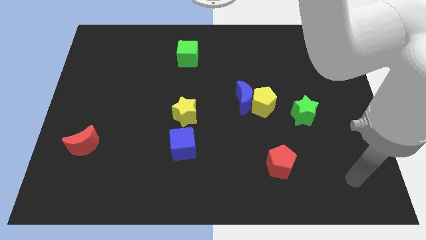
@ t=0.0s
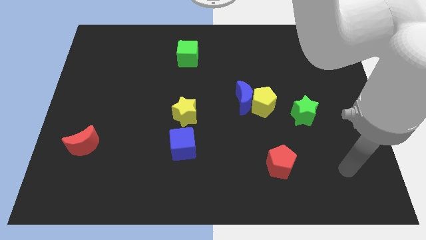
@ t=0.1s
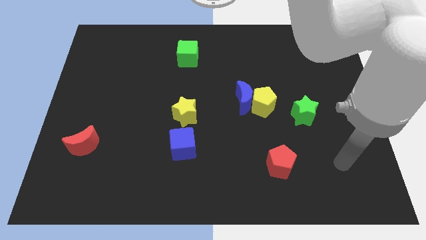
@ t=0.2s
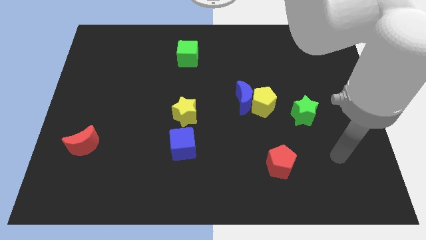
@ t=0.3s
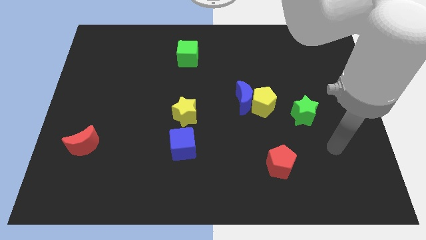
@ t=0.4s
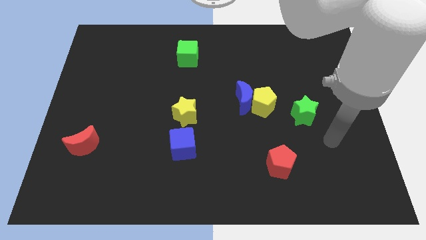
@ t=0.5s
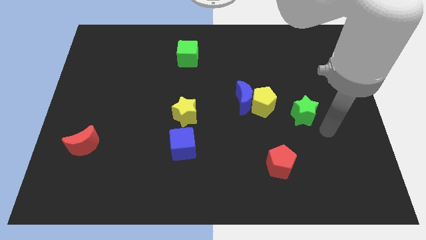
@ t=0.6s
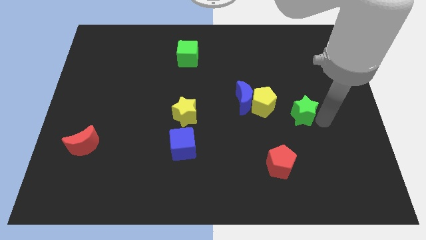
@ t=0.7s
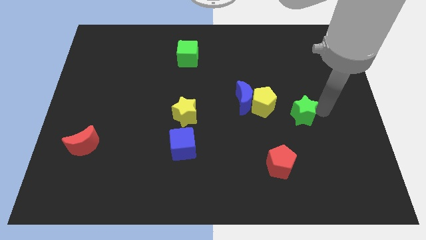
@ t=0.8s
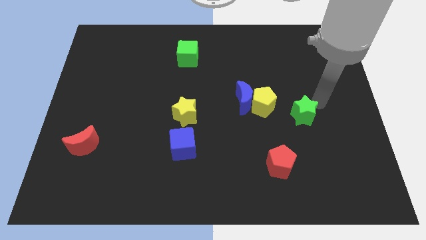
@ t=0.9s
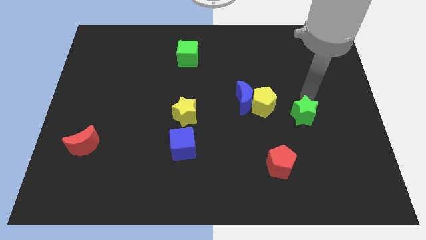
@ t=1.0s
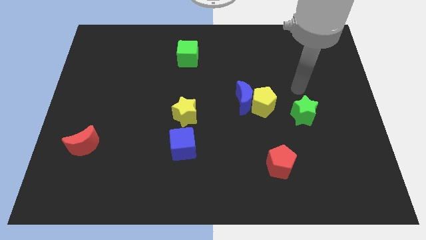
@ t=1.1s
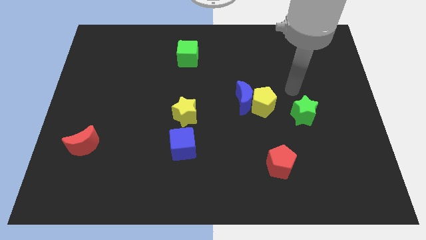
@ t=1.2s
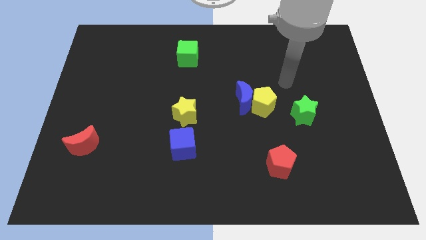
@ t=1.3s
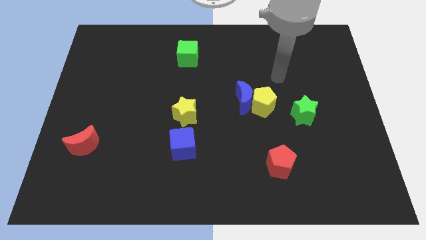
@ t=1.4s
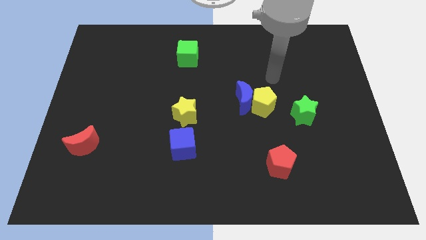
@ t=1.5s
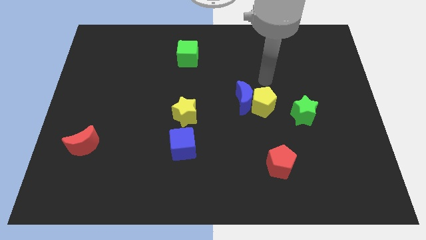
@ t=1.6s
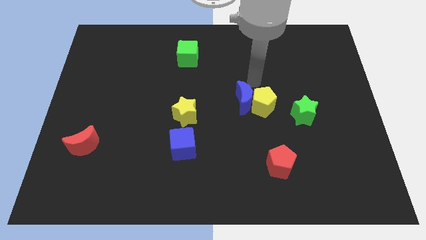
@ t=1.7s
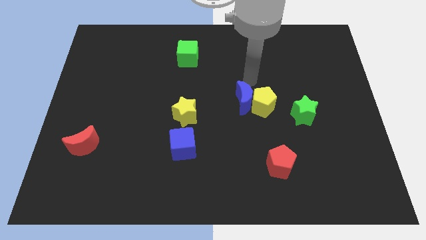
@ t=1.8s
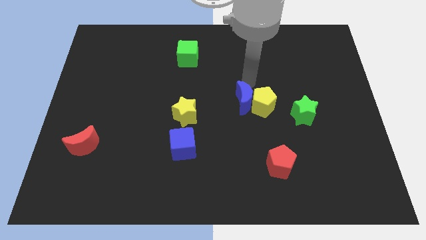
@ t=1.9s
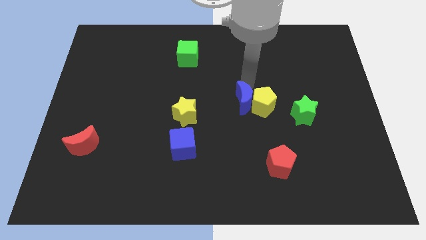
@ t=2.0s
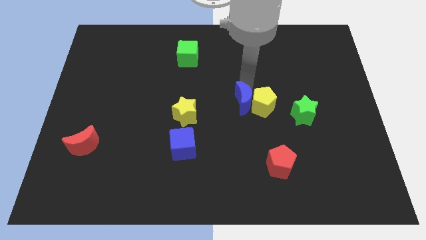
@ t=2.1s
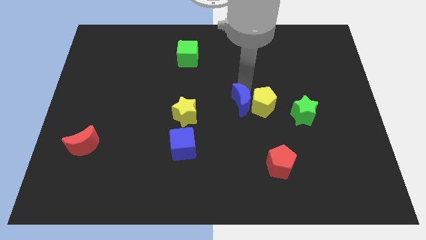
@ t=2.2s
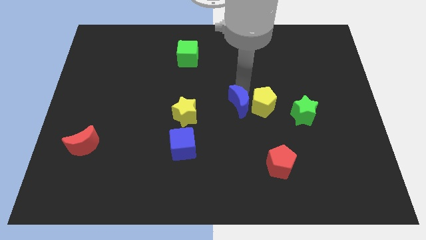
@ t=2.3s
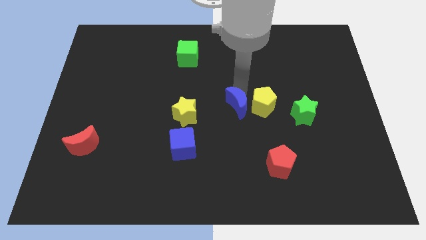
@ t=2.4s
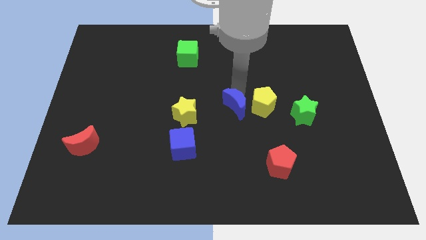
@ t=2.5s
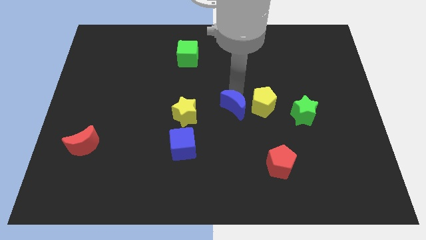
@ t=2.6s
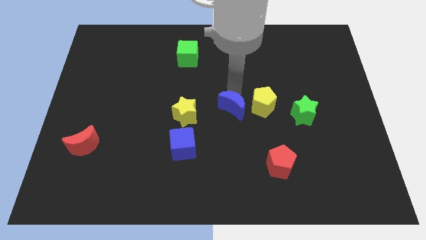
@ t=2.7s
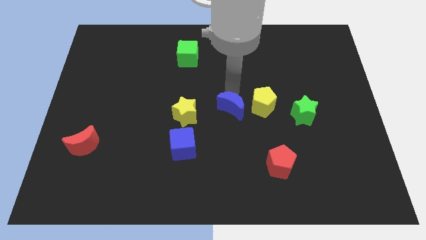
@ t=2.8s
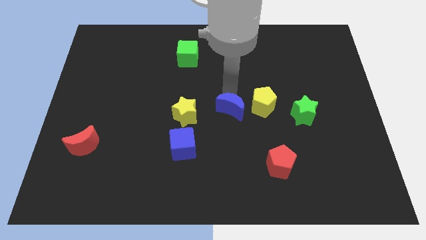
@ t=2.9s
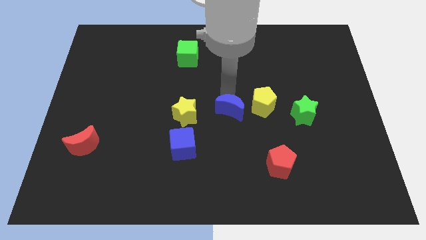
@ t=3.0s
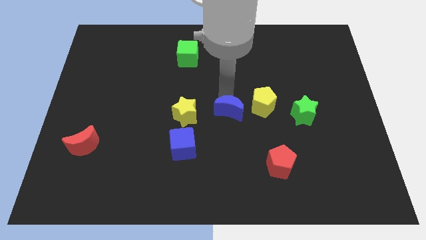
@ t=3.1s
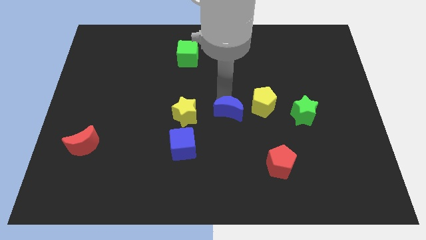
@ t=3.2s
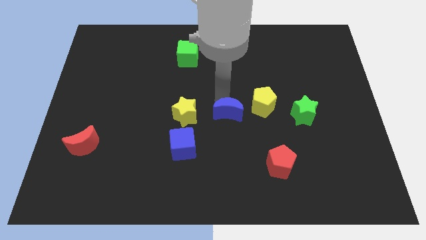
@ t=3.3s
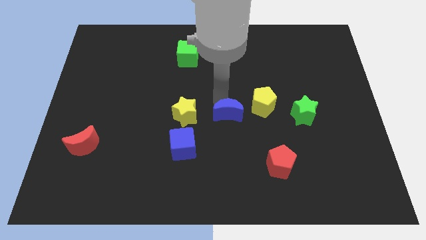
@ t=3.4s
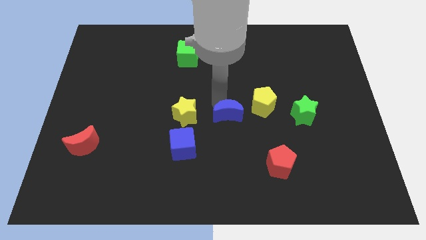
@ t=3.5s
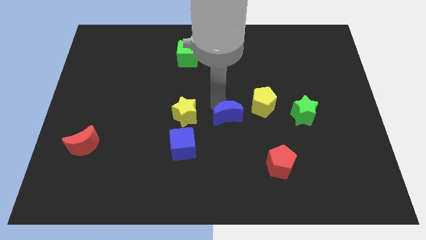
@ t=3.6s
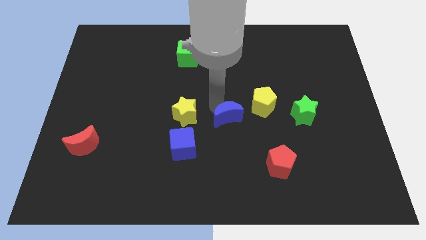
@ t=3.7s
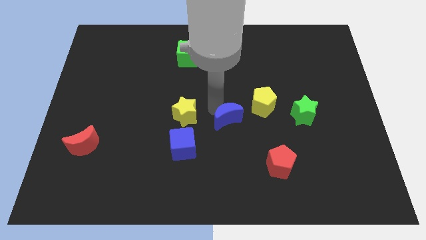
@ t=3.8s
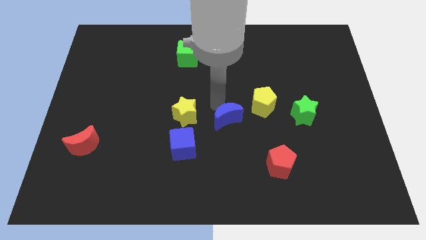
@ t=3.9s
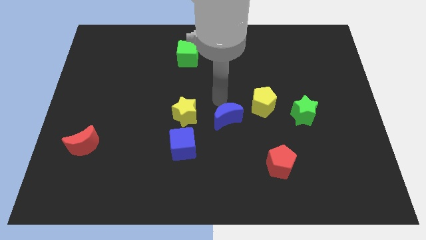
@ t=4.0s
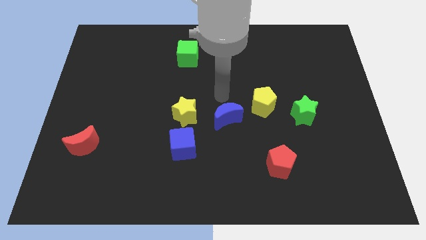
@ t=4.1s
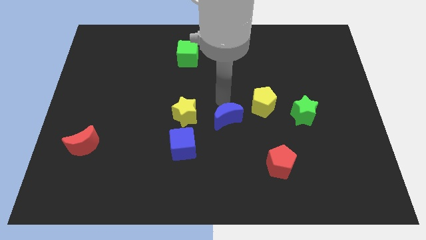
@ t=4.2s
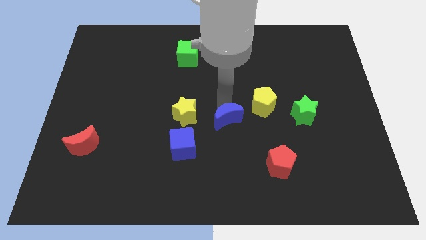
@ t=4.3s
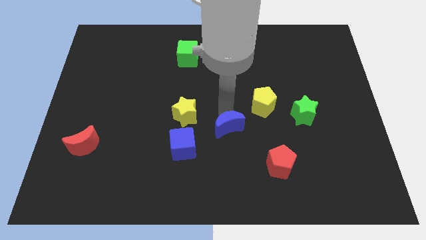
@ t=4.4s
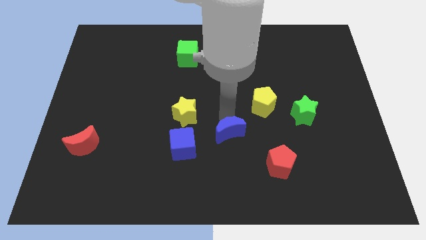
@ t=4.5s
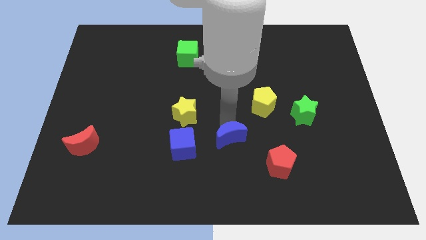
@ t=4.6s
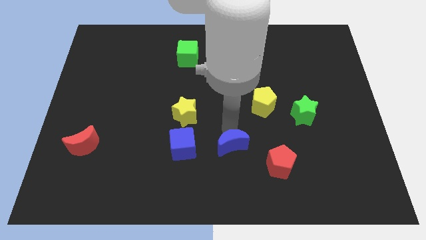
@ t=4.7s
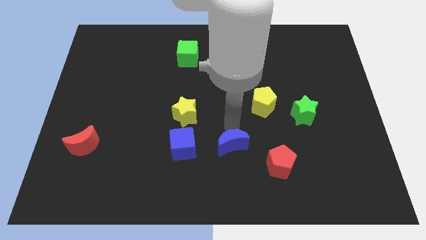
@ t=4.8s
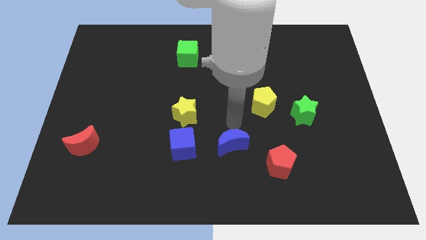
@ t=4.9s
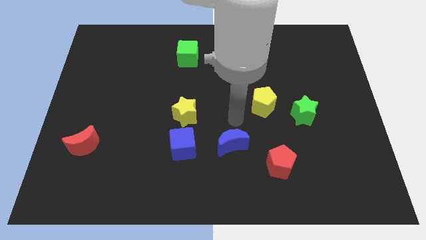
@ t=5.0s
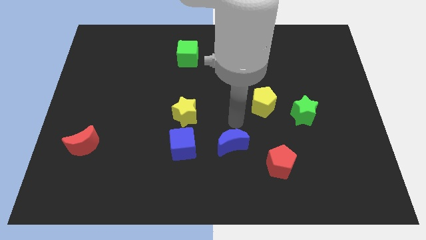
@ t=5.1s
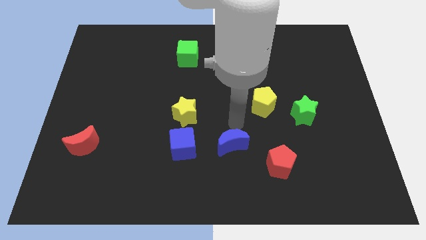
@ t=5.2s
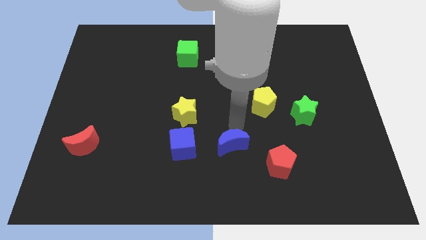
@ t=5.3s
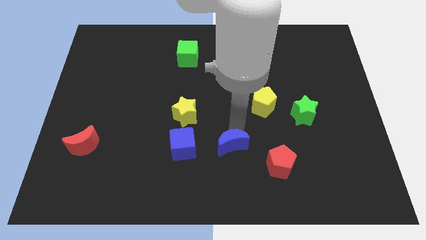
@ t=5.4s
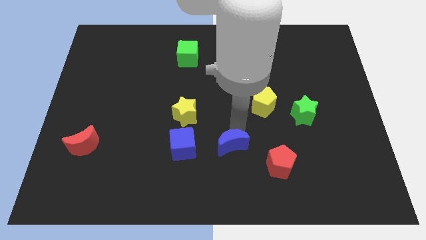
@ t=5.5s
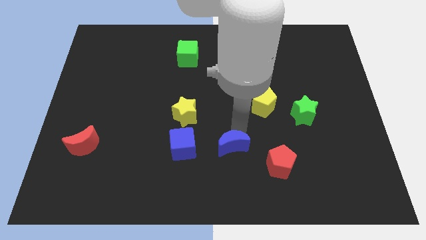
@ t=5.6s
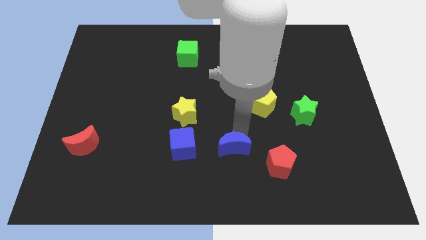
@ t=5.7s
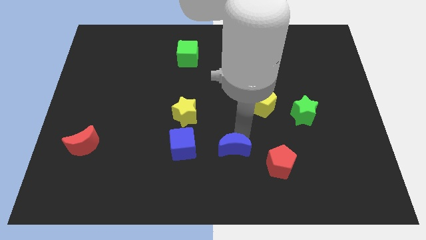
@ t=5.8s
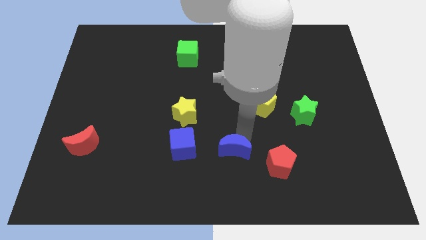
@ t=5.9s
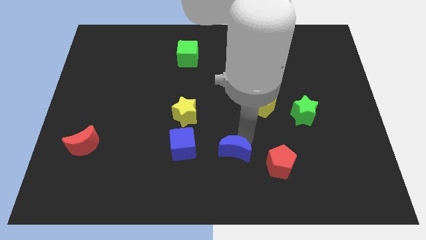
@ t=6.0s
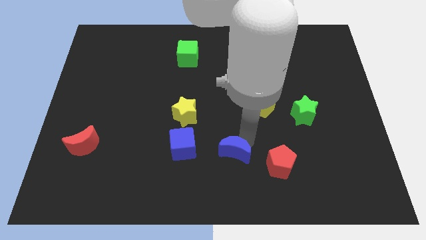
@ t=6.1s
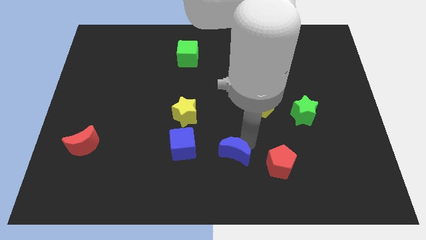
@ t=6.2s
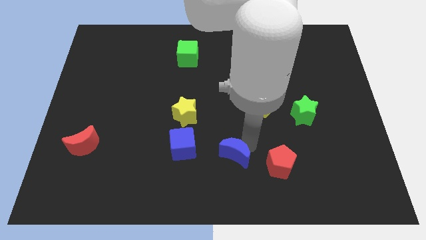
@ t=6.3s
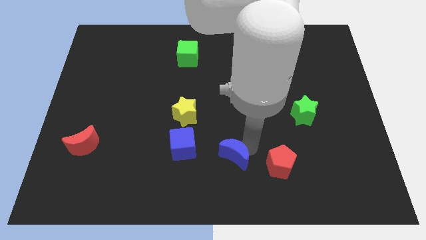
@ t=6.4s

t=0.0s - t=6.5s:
push the blue moon to the bottom side
